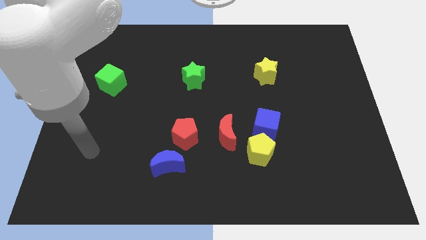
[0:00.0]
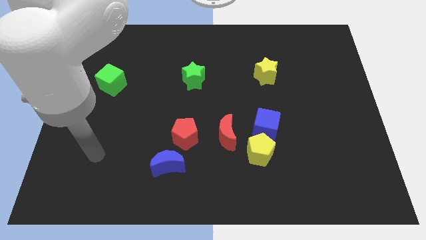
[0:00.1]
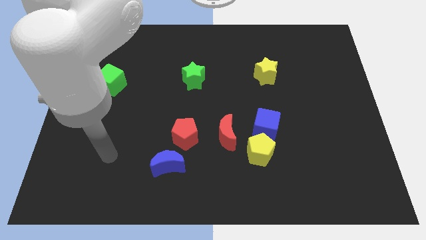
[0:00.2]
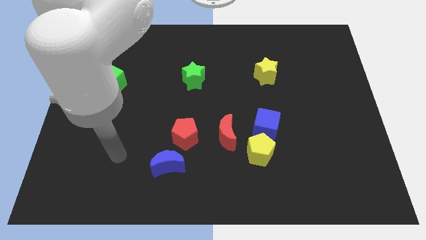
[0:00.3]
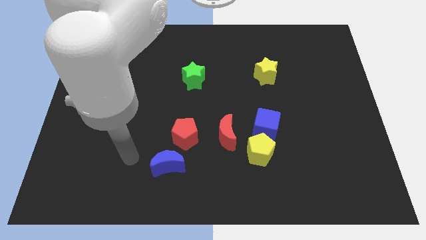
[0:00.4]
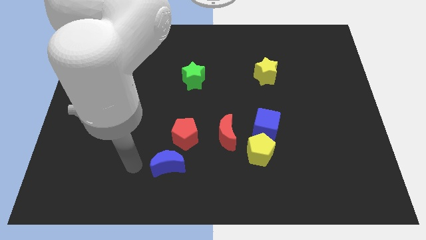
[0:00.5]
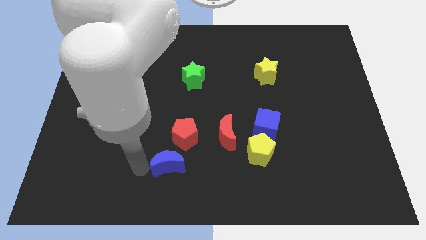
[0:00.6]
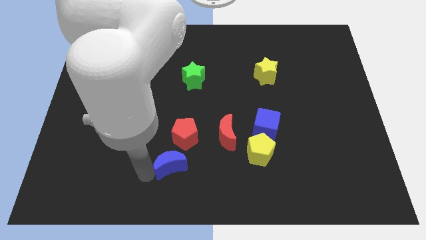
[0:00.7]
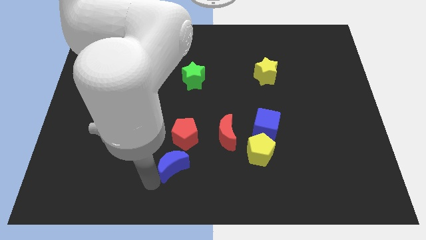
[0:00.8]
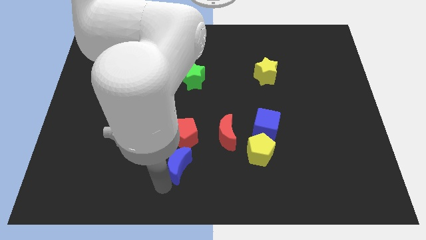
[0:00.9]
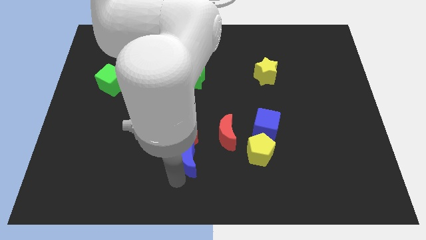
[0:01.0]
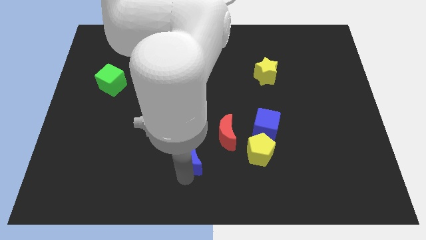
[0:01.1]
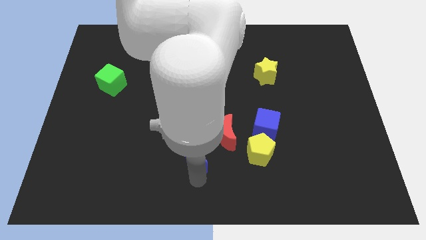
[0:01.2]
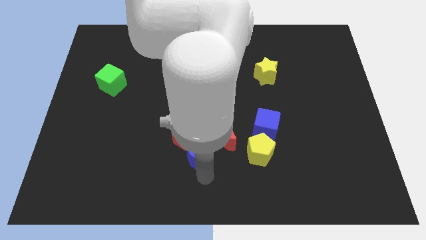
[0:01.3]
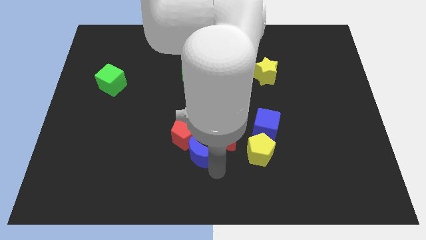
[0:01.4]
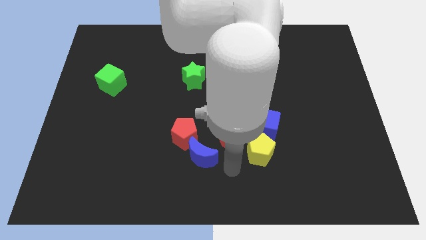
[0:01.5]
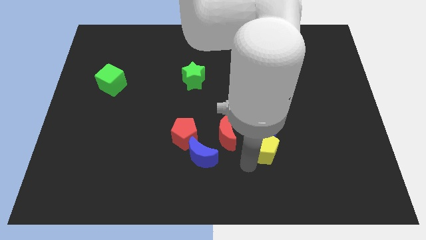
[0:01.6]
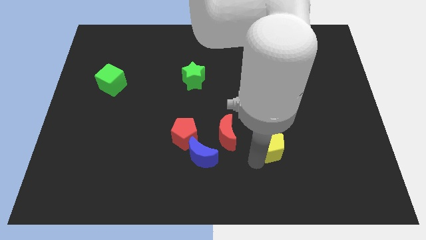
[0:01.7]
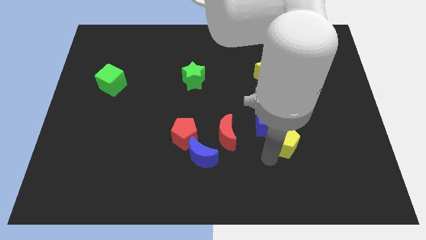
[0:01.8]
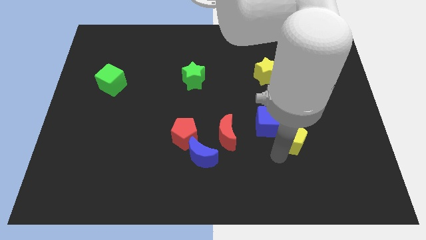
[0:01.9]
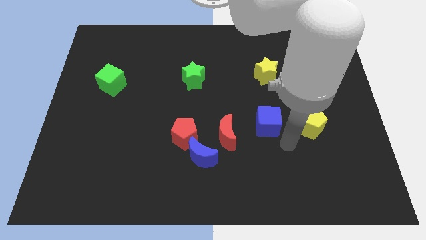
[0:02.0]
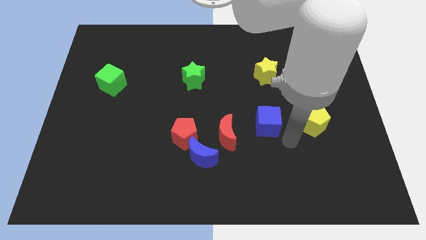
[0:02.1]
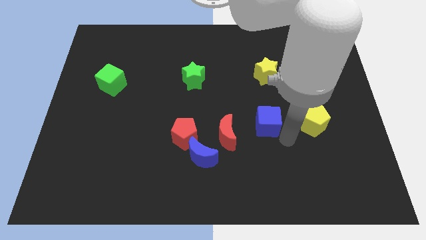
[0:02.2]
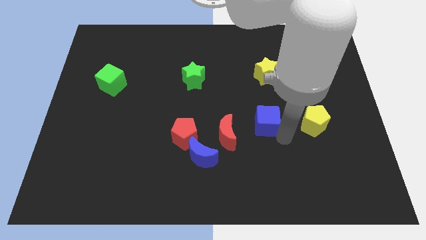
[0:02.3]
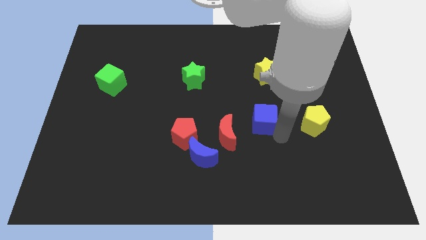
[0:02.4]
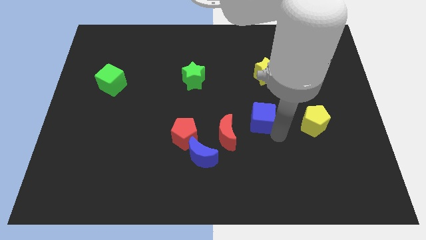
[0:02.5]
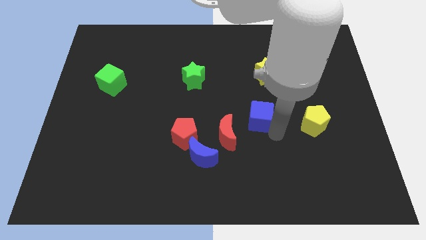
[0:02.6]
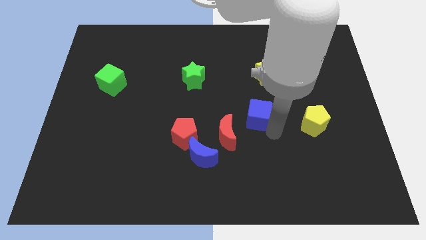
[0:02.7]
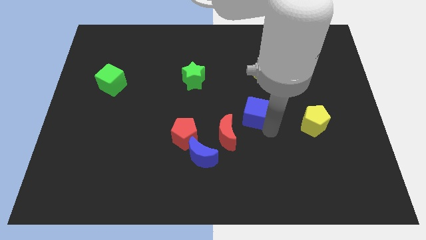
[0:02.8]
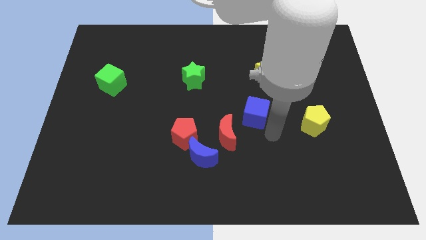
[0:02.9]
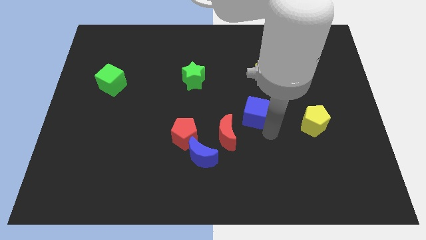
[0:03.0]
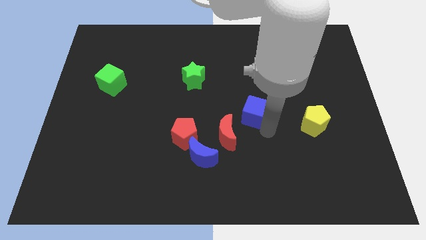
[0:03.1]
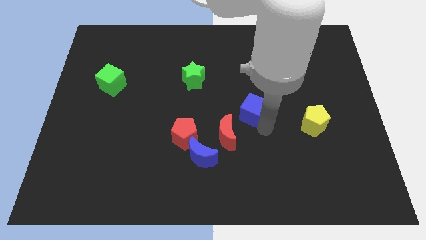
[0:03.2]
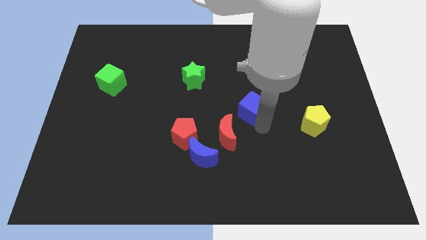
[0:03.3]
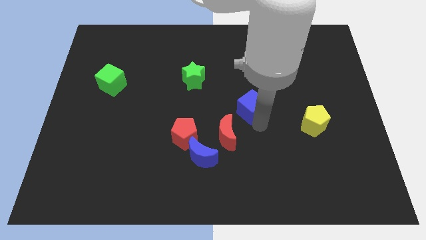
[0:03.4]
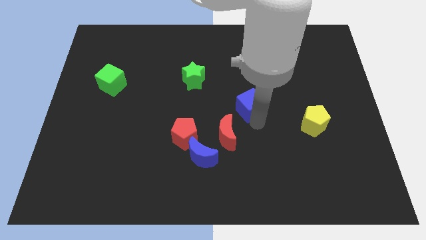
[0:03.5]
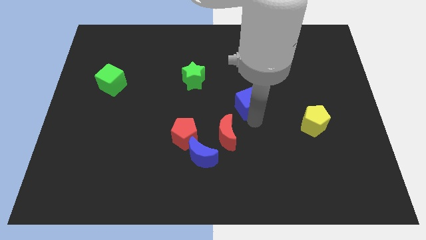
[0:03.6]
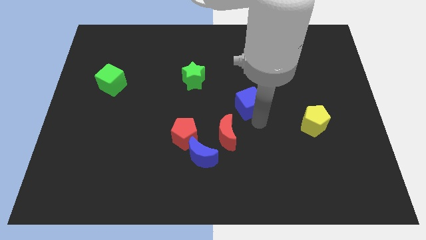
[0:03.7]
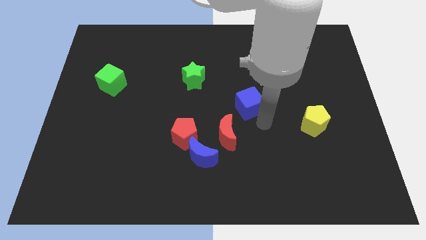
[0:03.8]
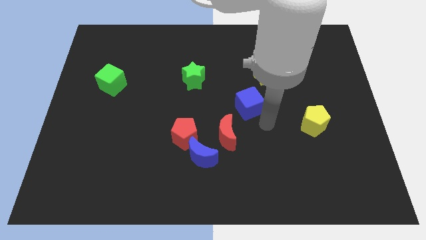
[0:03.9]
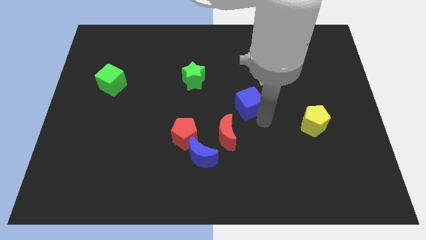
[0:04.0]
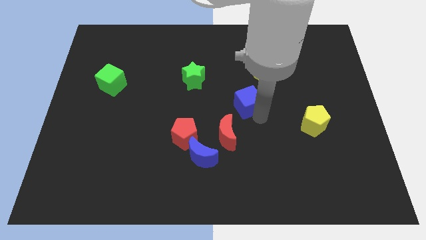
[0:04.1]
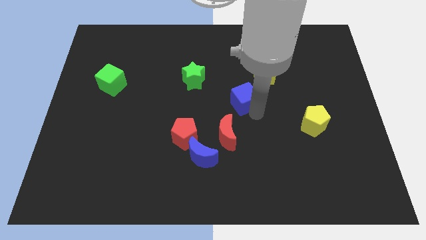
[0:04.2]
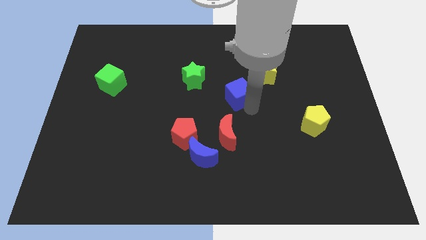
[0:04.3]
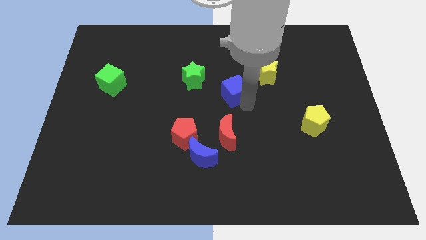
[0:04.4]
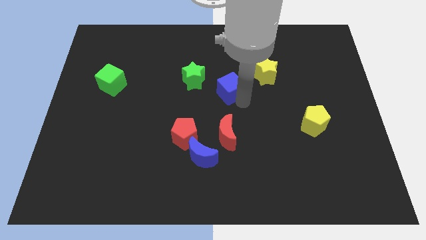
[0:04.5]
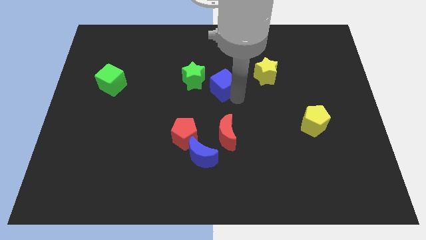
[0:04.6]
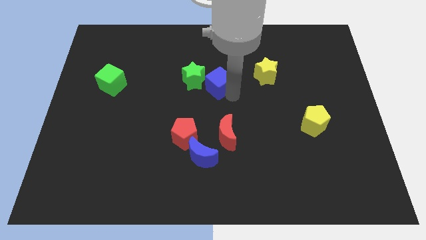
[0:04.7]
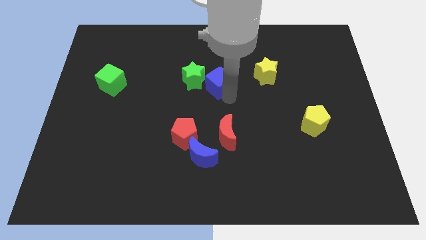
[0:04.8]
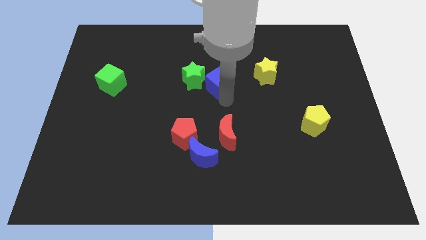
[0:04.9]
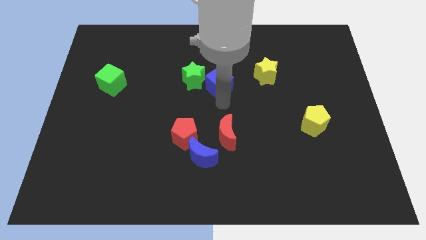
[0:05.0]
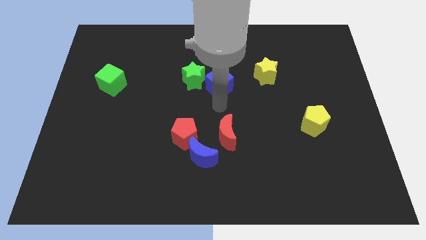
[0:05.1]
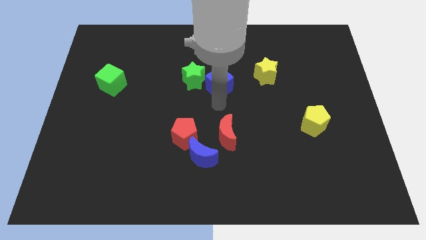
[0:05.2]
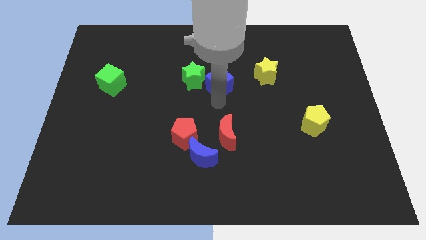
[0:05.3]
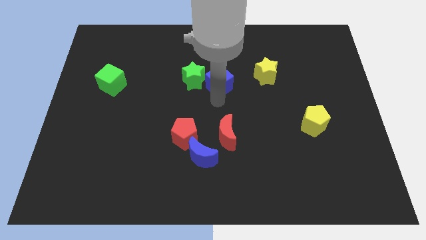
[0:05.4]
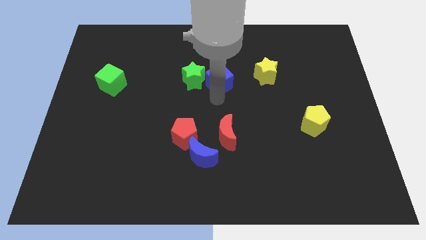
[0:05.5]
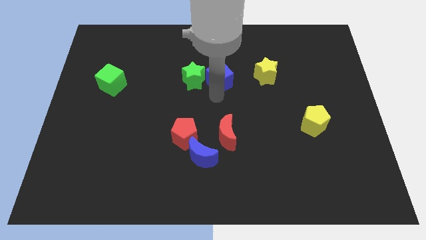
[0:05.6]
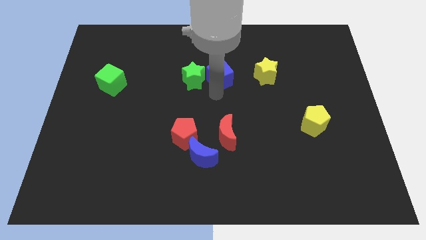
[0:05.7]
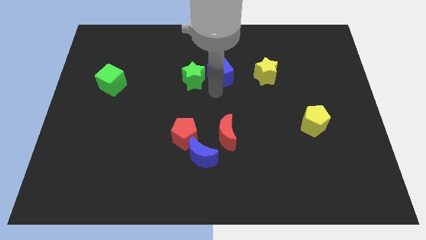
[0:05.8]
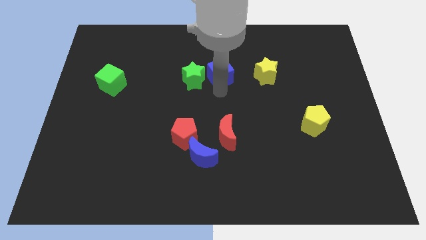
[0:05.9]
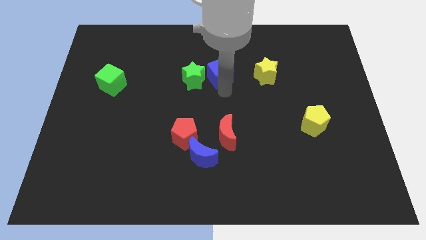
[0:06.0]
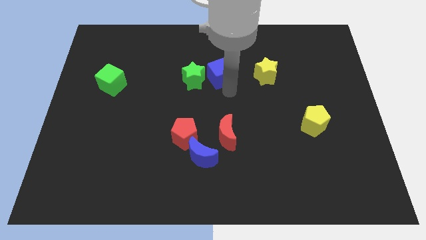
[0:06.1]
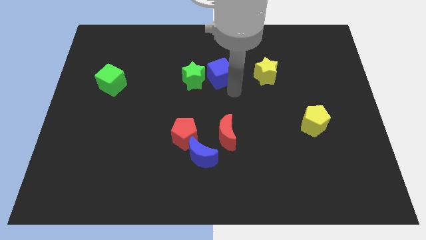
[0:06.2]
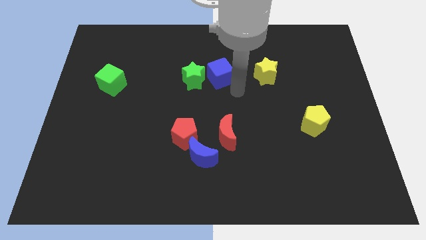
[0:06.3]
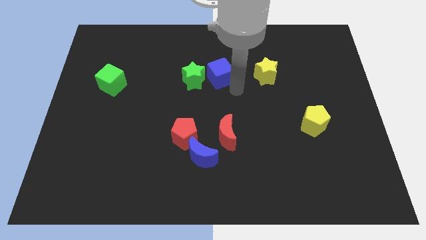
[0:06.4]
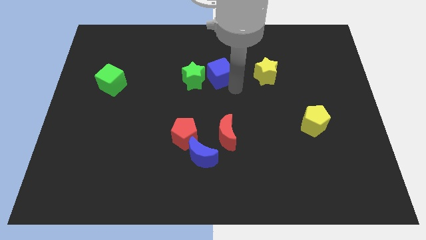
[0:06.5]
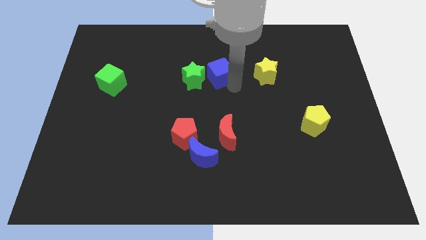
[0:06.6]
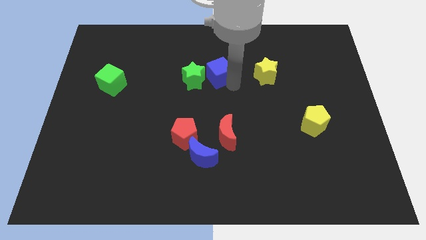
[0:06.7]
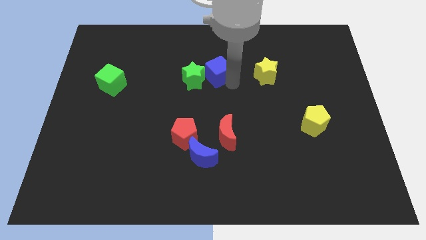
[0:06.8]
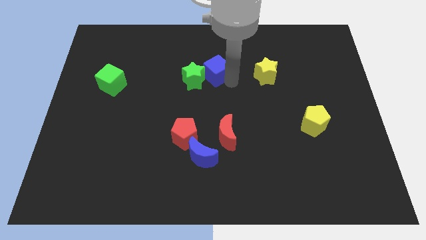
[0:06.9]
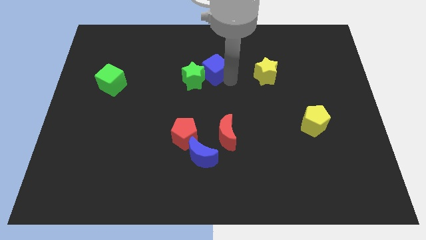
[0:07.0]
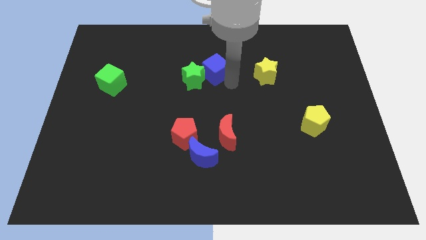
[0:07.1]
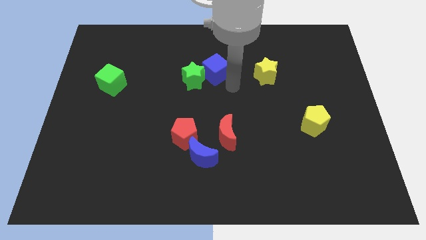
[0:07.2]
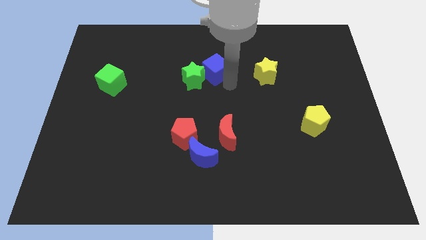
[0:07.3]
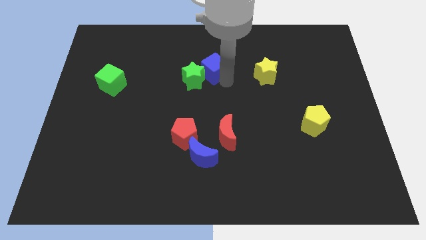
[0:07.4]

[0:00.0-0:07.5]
push the blue cube upwards and then left

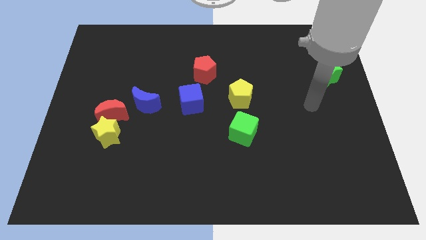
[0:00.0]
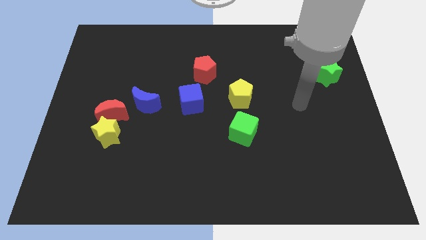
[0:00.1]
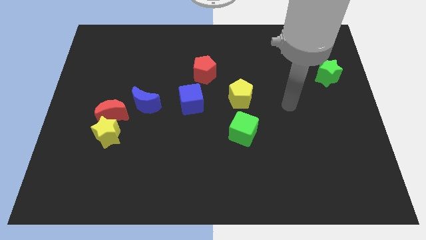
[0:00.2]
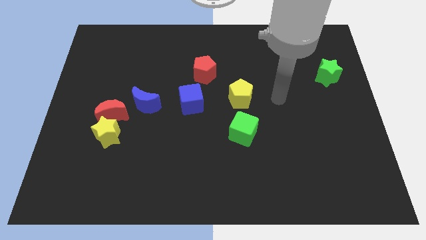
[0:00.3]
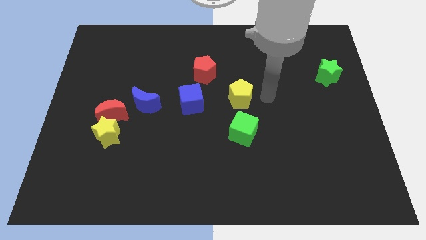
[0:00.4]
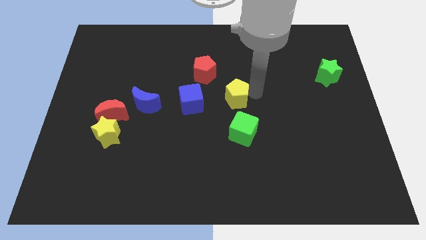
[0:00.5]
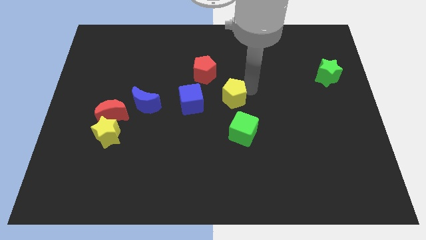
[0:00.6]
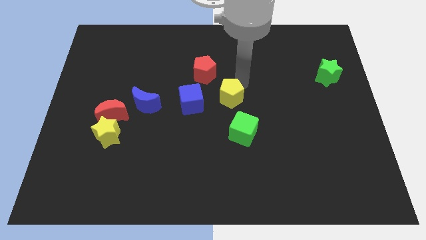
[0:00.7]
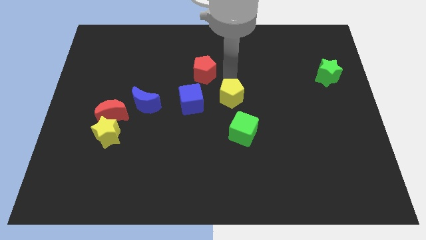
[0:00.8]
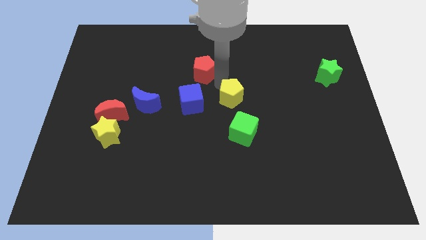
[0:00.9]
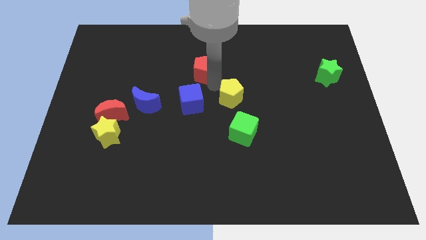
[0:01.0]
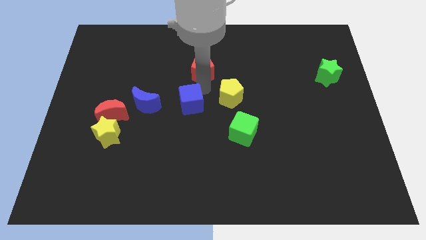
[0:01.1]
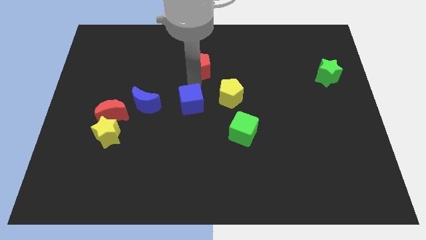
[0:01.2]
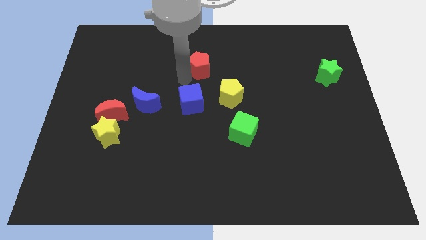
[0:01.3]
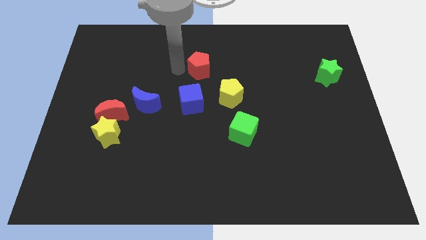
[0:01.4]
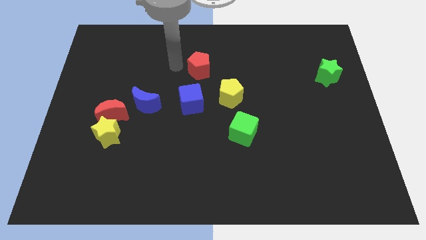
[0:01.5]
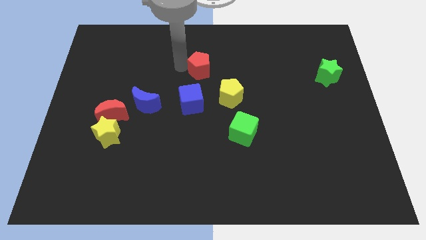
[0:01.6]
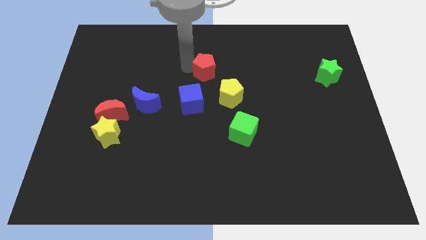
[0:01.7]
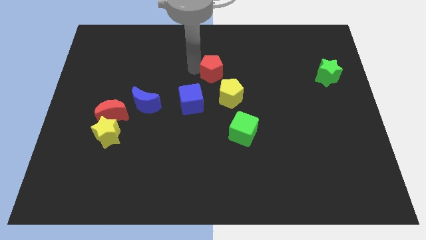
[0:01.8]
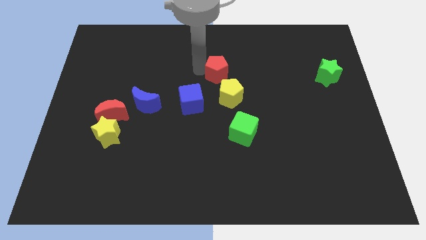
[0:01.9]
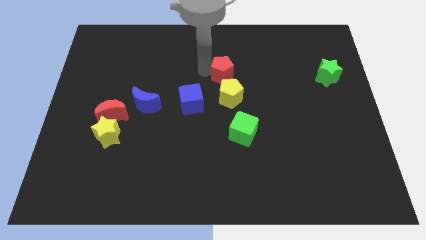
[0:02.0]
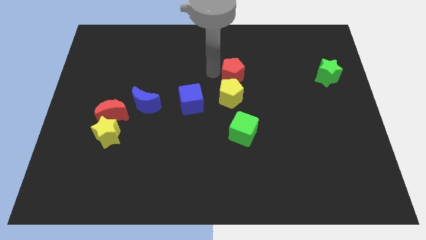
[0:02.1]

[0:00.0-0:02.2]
push the red pentagon to the right somewhat
